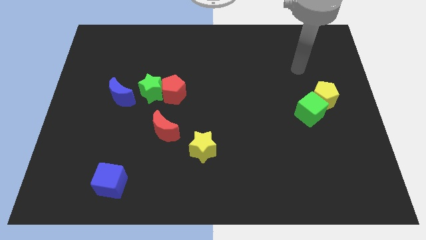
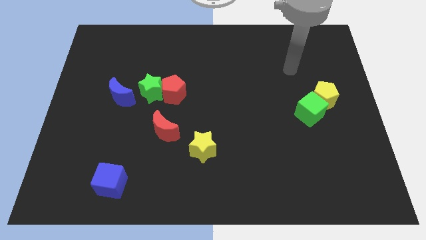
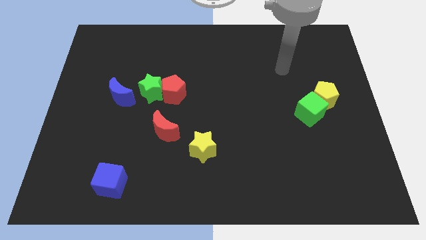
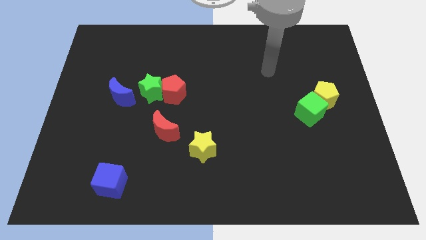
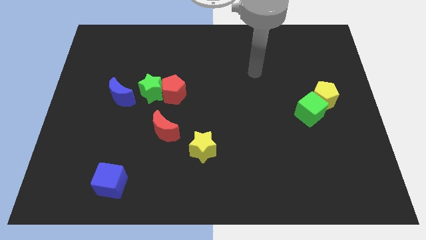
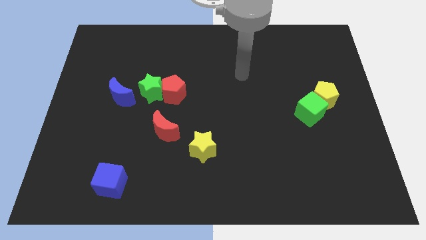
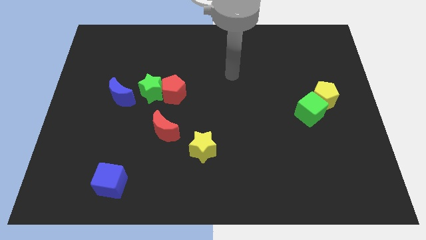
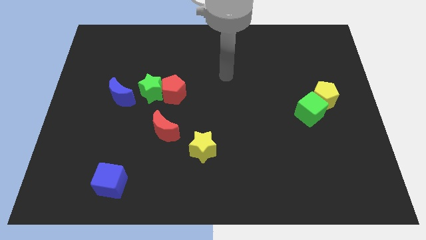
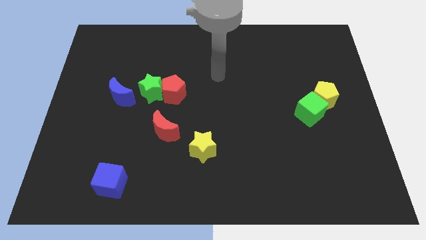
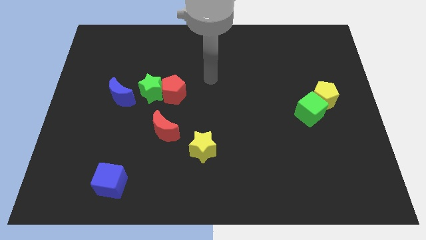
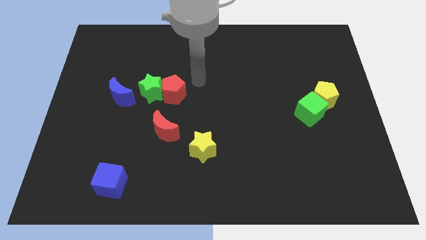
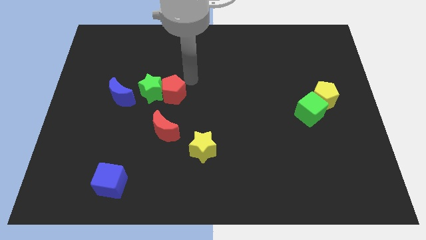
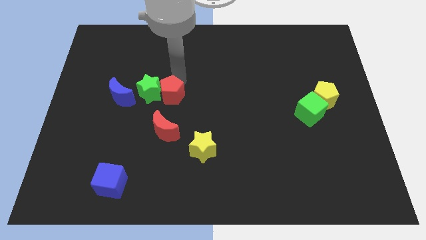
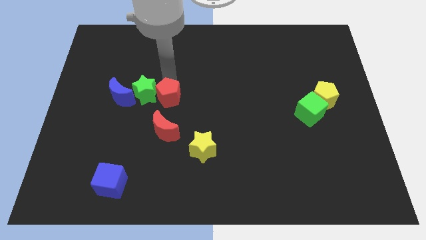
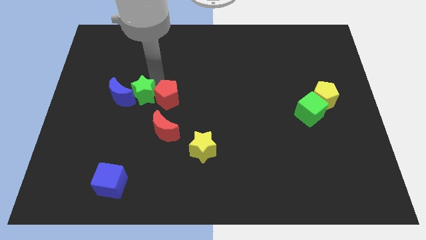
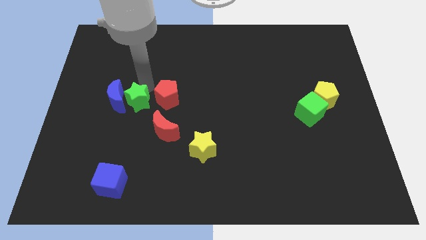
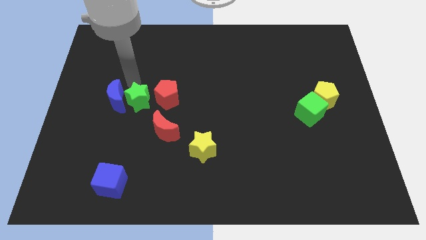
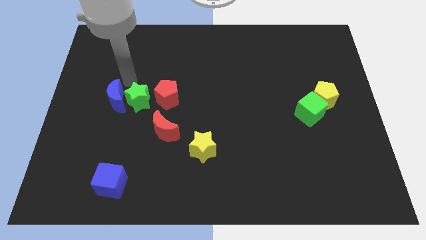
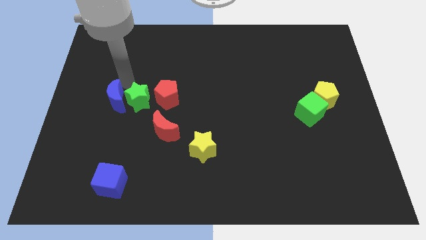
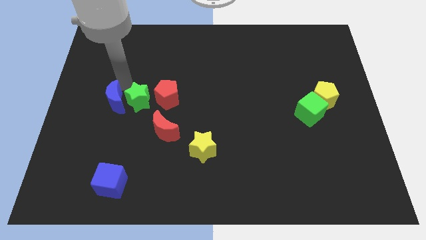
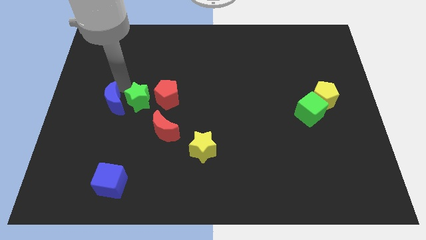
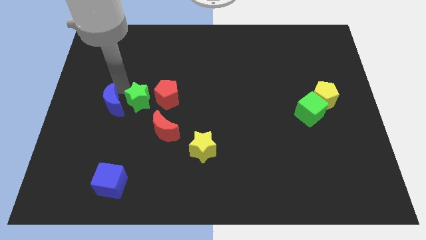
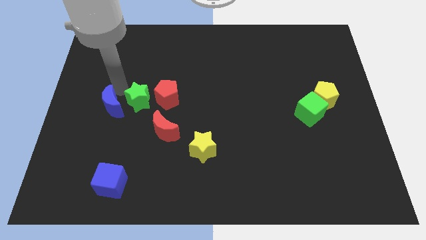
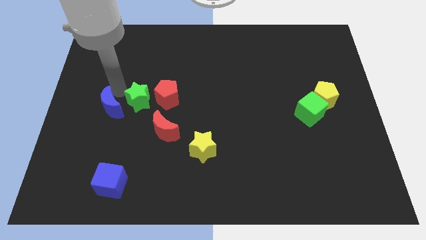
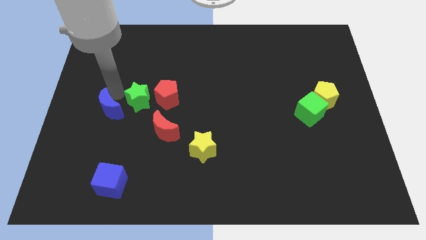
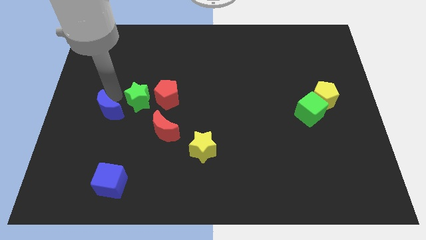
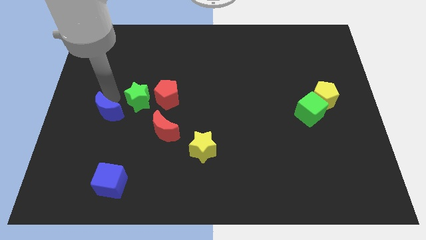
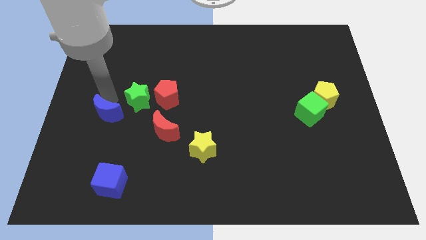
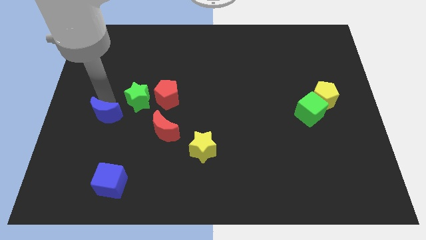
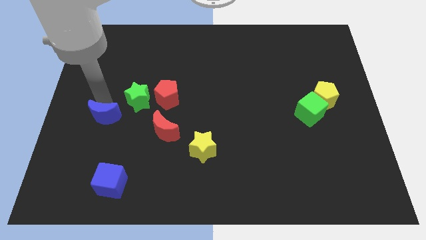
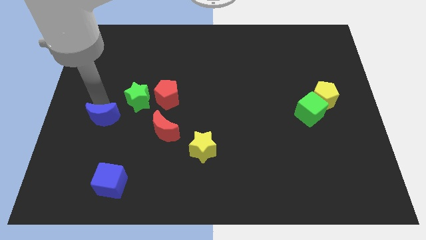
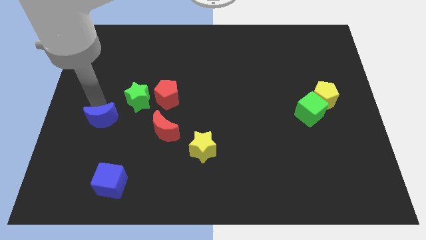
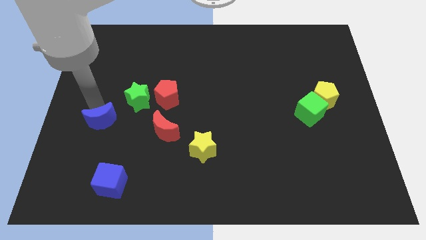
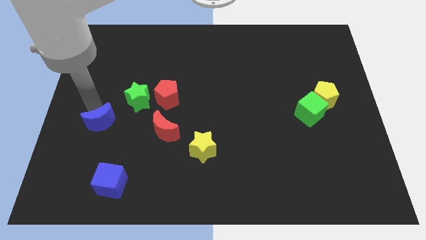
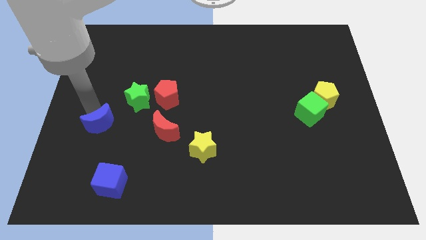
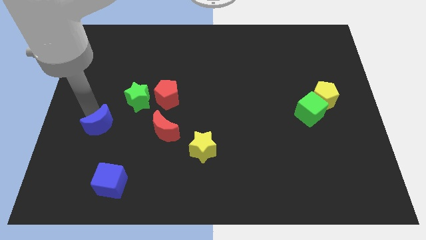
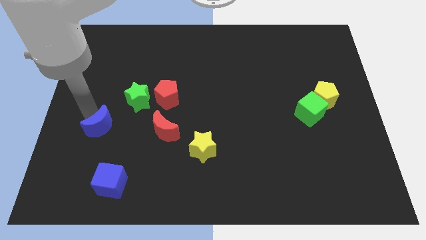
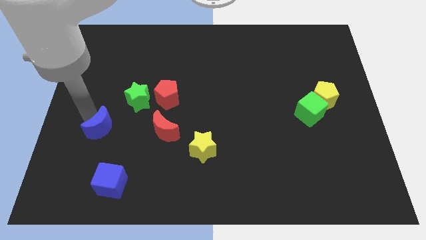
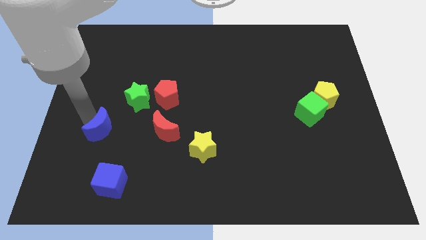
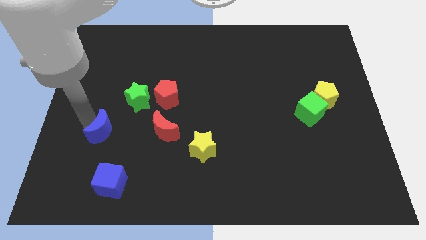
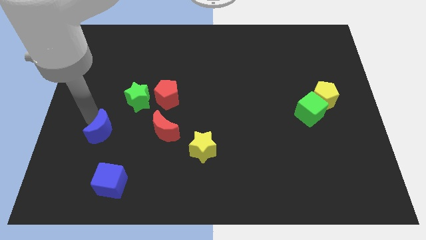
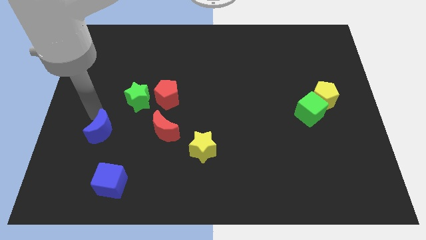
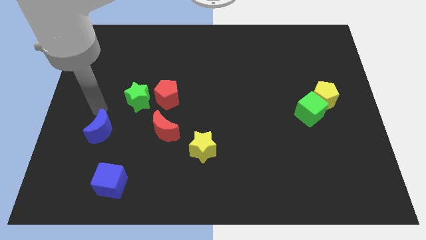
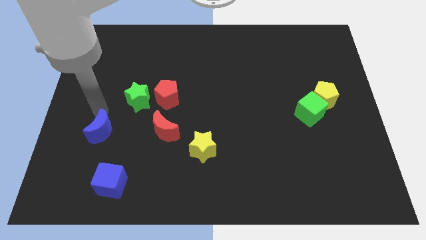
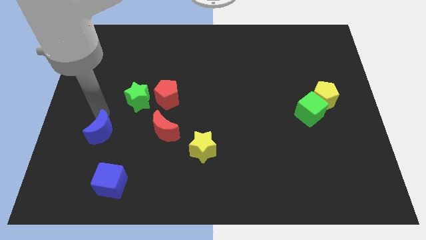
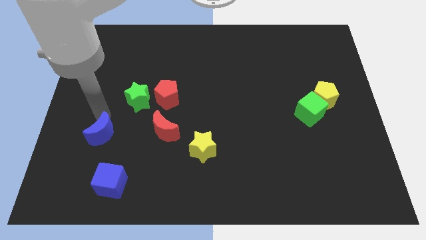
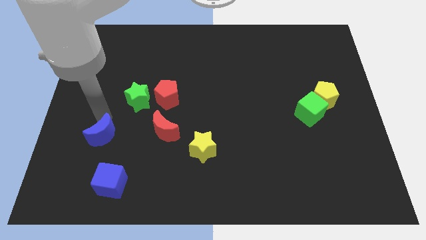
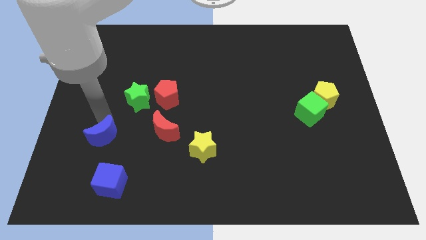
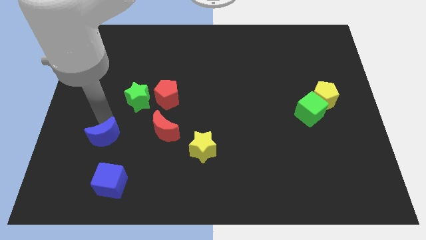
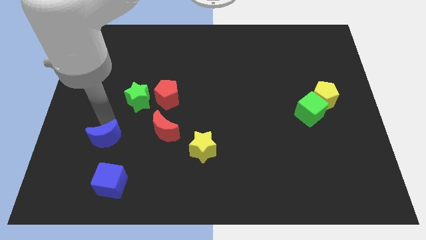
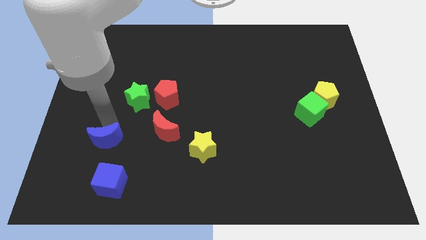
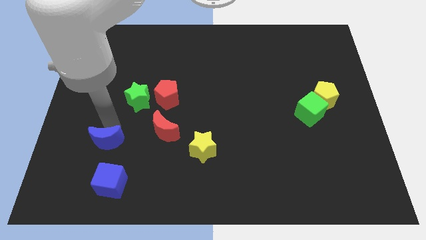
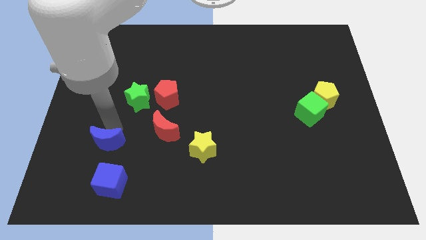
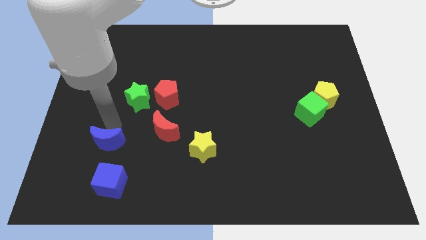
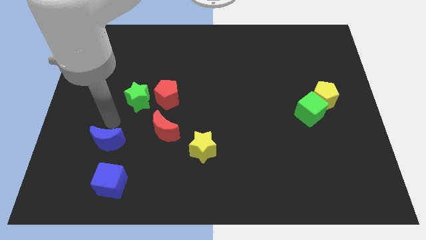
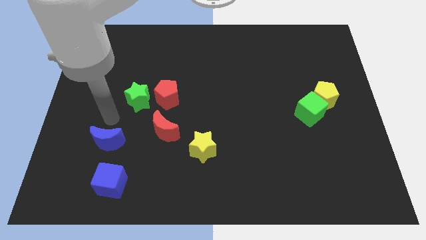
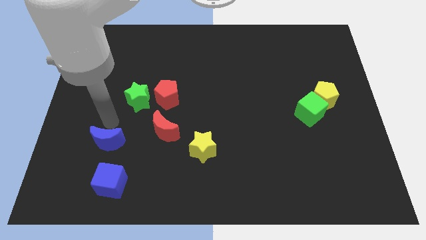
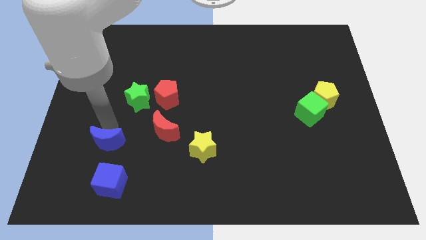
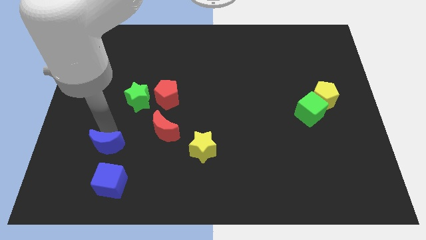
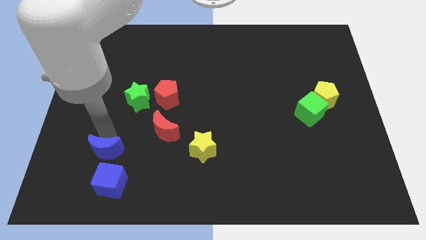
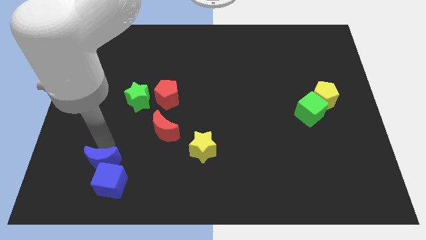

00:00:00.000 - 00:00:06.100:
push the blue moon close to the blue cube

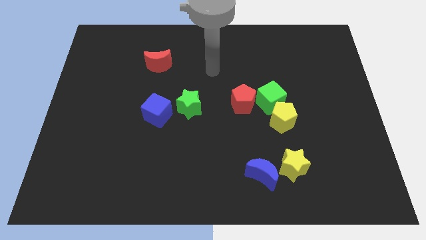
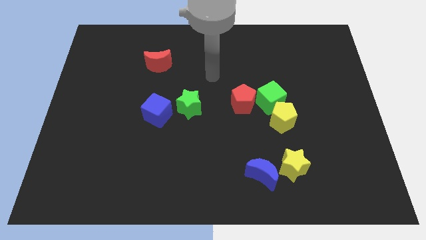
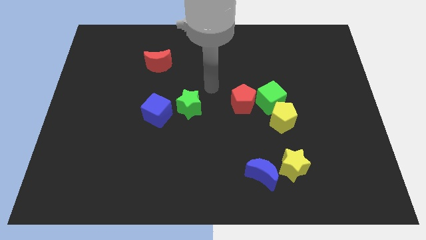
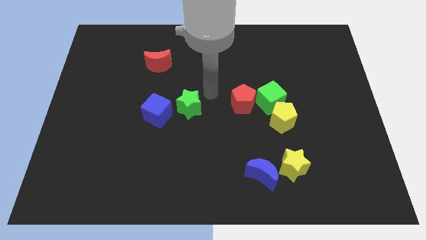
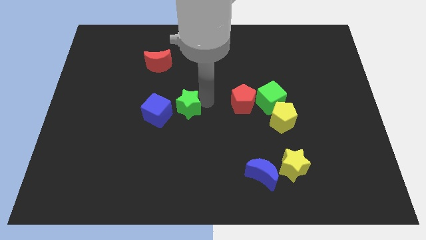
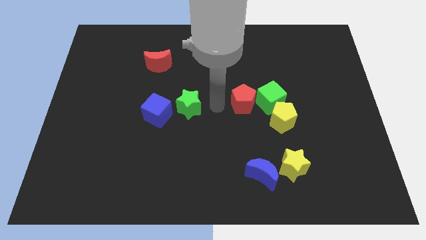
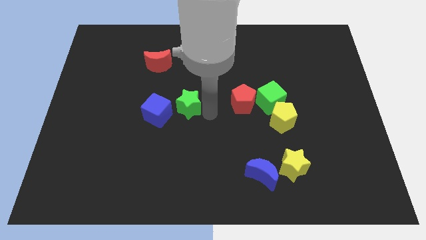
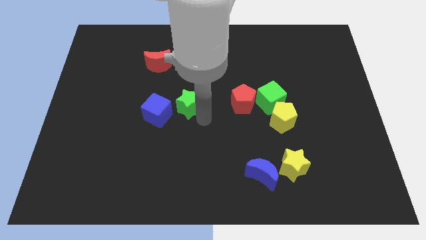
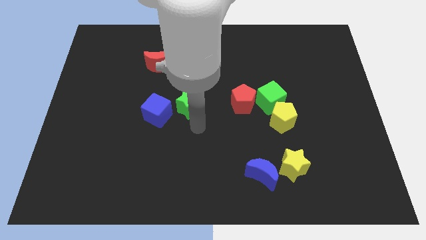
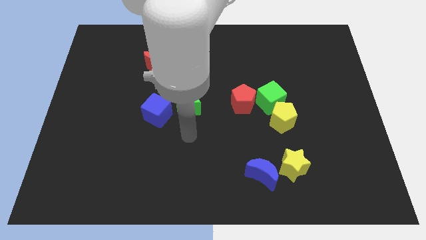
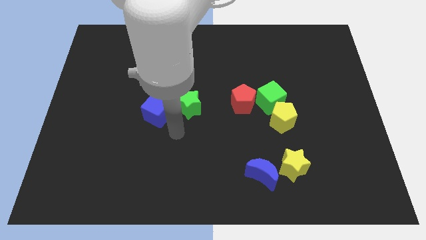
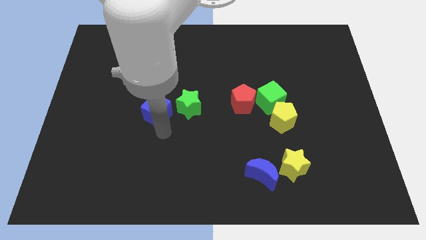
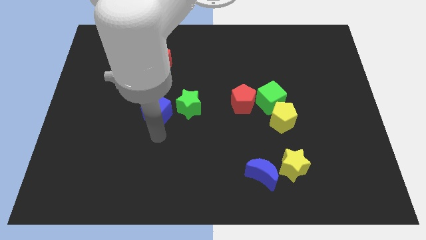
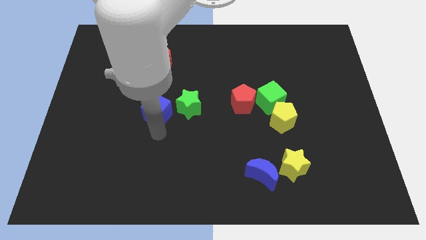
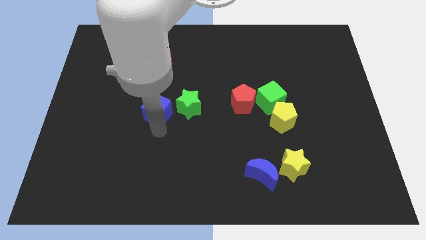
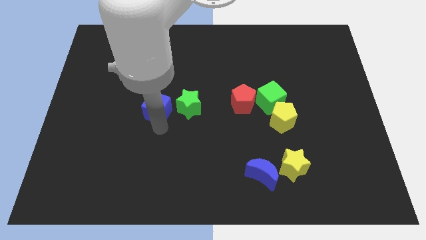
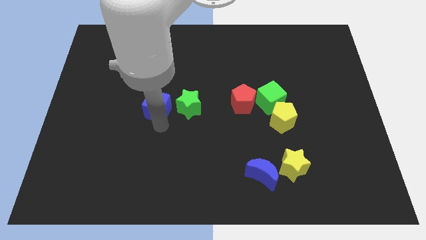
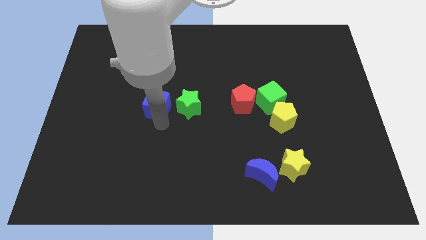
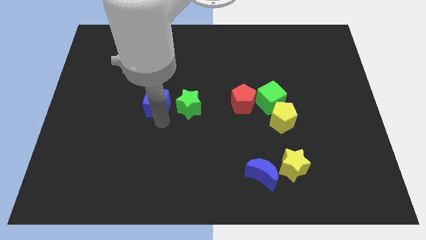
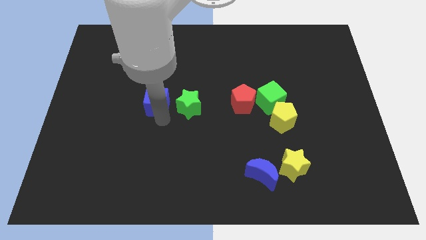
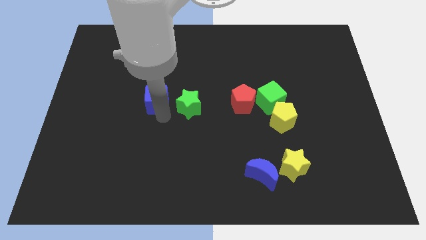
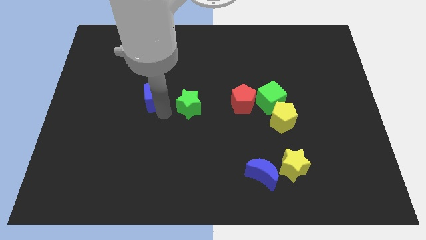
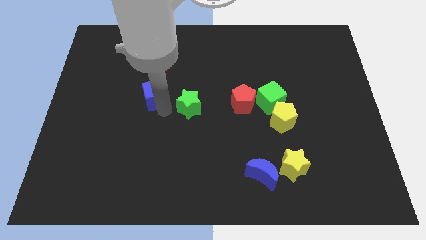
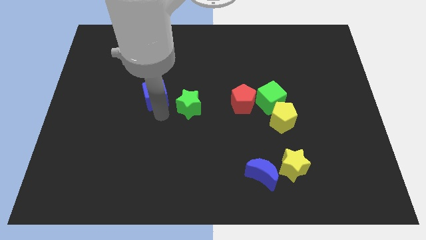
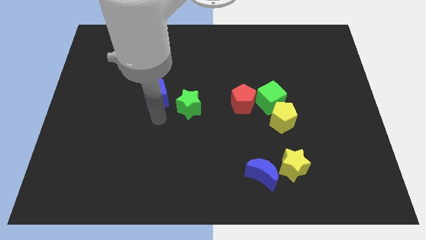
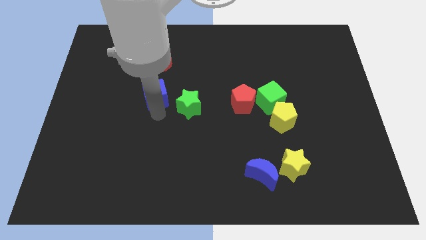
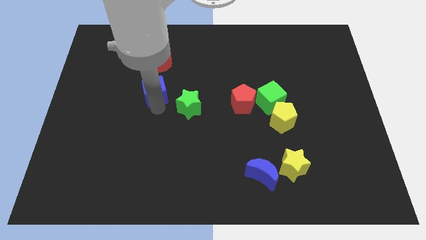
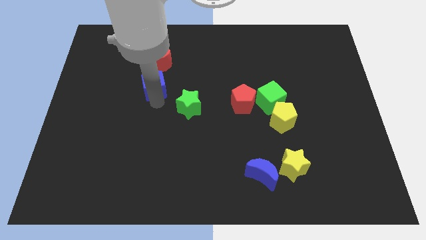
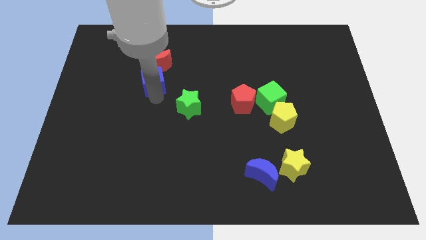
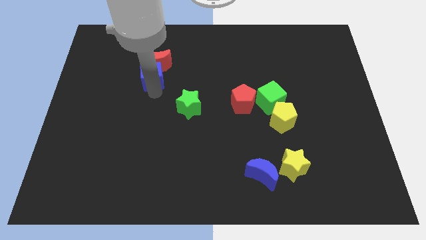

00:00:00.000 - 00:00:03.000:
slide the blue cube towards the red moon
